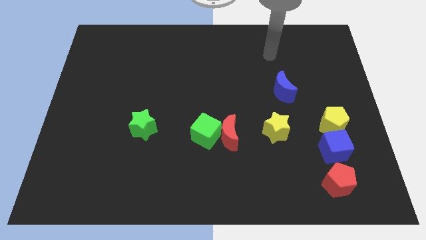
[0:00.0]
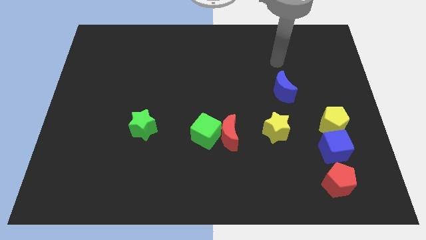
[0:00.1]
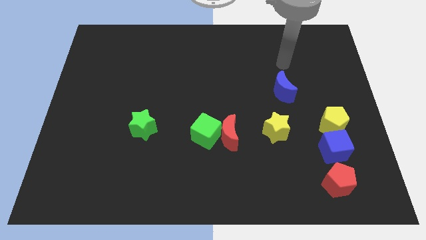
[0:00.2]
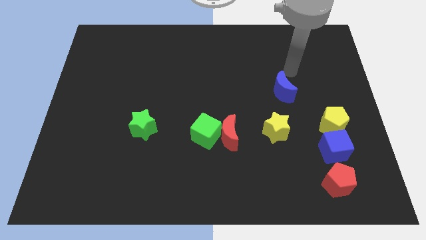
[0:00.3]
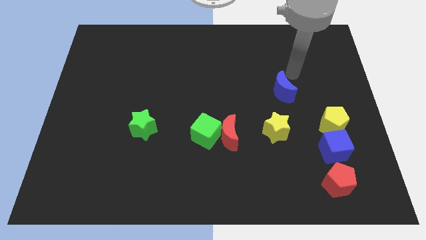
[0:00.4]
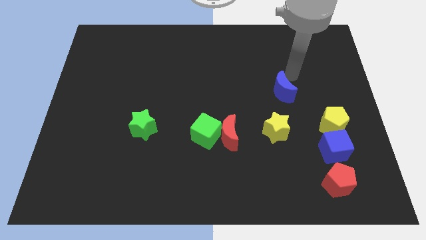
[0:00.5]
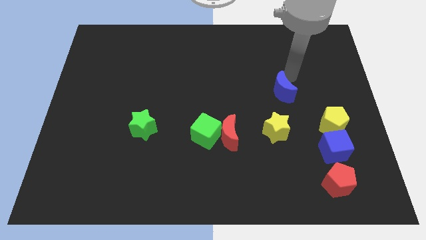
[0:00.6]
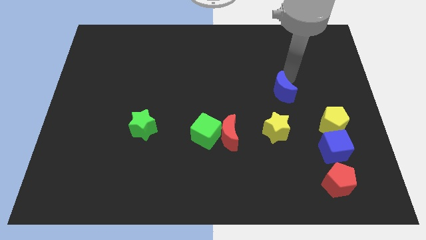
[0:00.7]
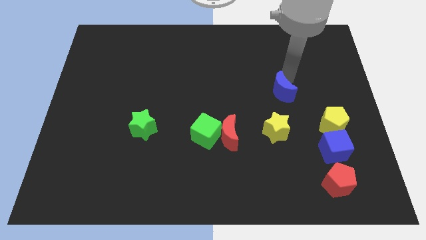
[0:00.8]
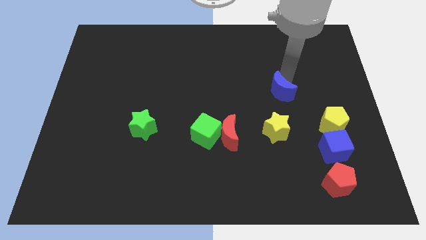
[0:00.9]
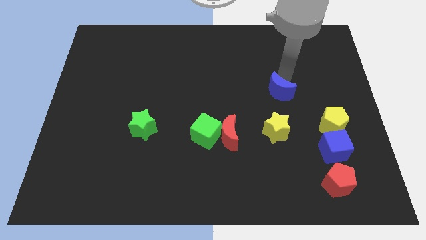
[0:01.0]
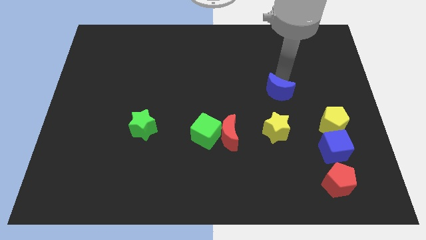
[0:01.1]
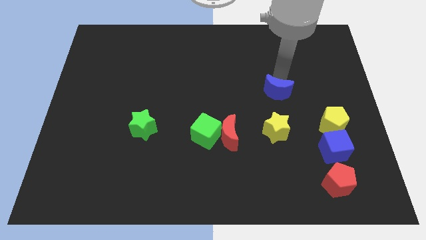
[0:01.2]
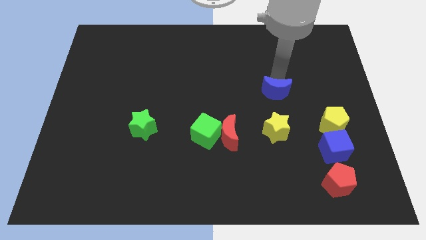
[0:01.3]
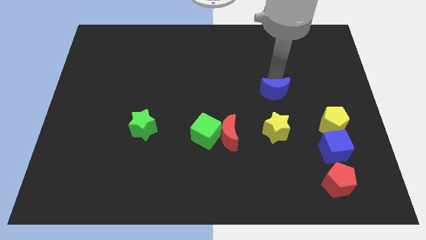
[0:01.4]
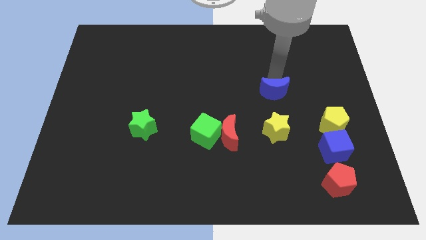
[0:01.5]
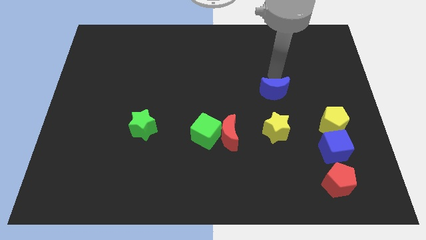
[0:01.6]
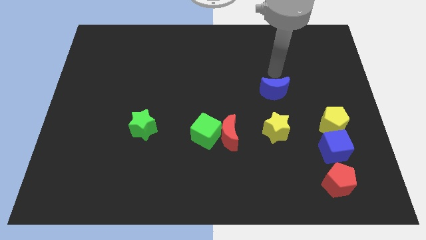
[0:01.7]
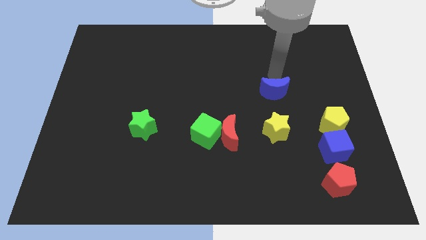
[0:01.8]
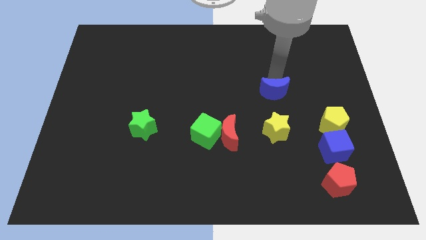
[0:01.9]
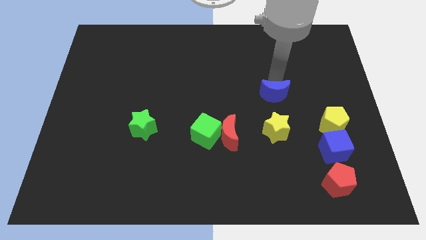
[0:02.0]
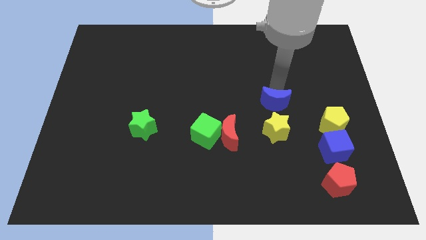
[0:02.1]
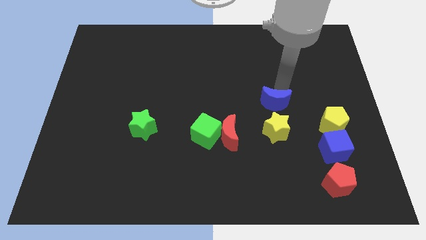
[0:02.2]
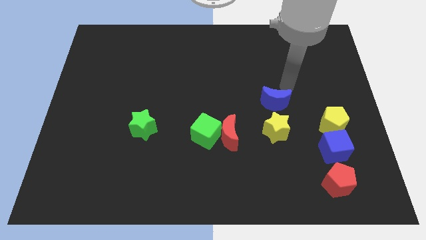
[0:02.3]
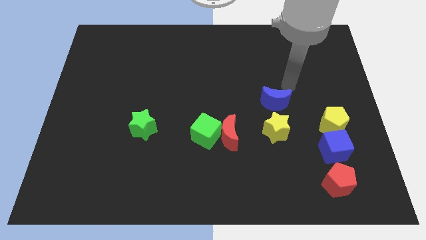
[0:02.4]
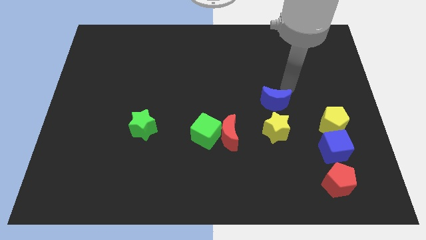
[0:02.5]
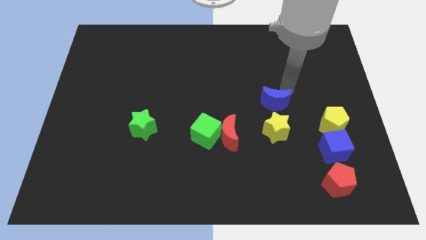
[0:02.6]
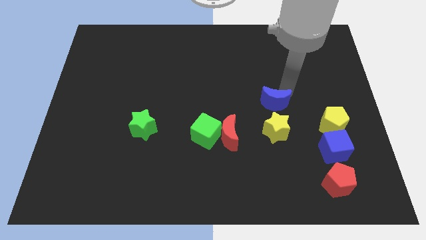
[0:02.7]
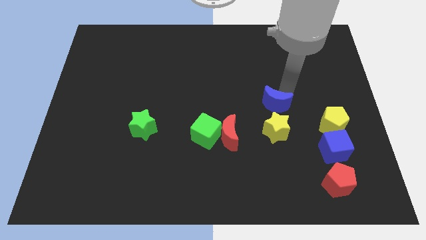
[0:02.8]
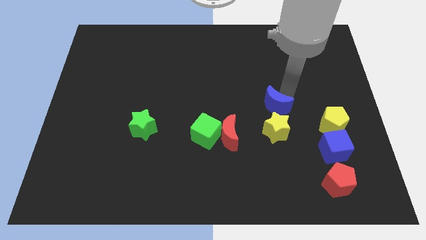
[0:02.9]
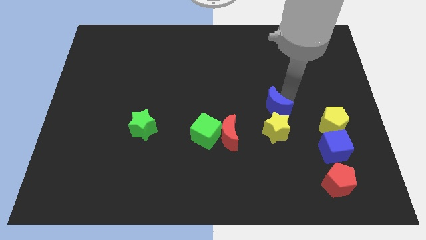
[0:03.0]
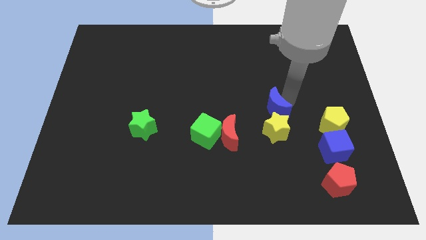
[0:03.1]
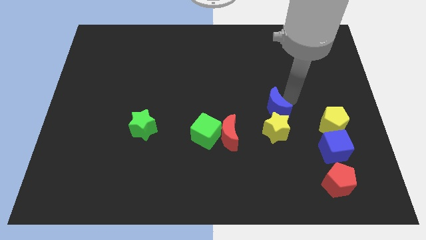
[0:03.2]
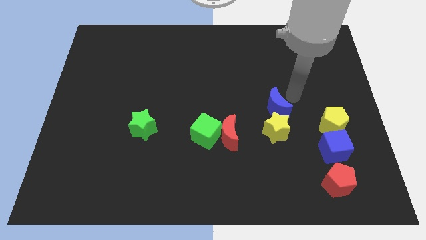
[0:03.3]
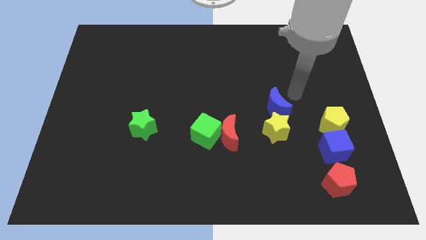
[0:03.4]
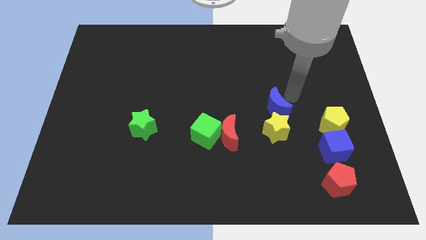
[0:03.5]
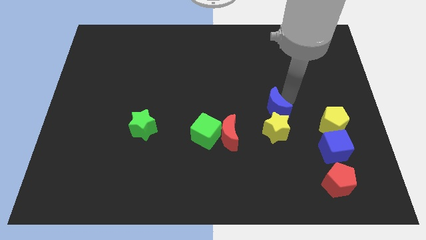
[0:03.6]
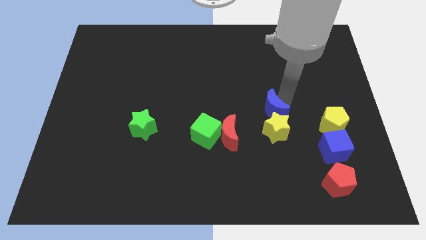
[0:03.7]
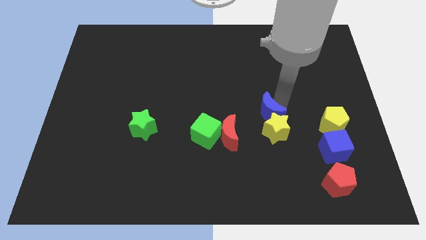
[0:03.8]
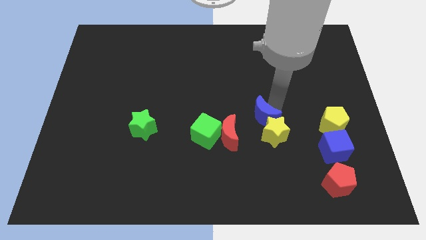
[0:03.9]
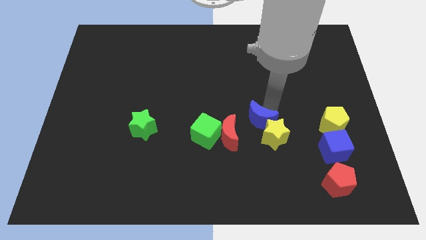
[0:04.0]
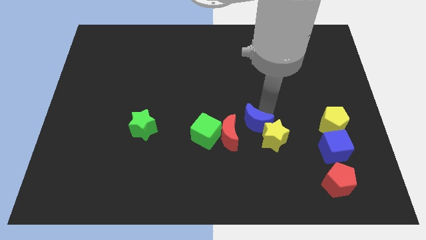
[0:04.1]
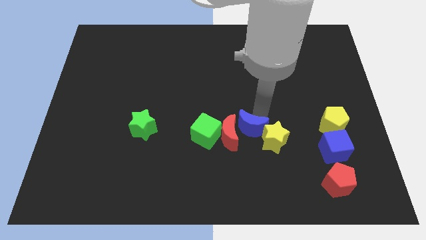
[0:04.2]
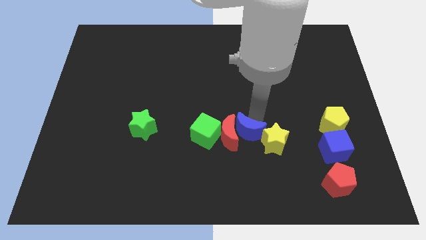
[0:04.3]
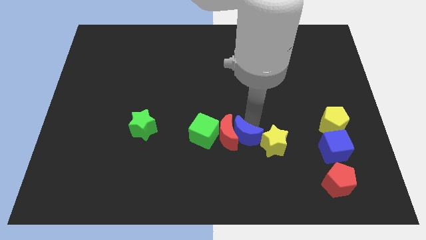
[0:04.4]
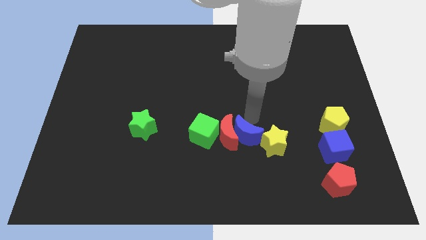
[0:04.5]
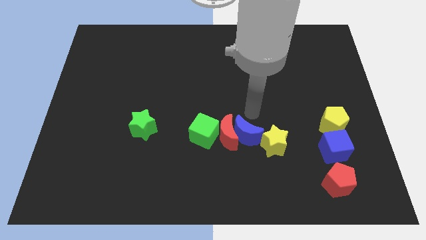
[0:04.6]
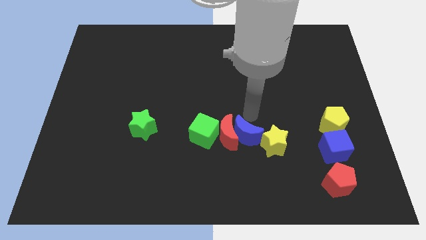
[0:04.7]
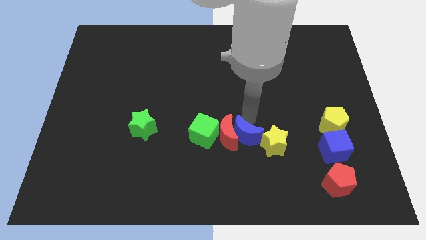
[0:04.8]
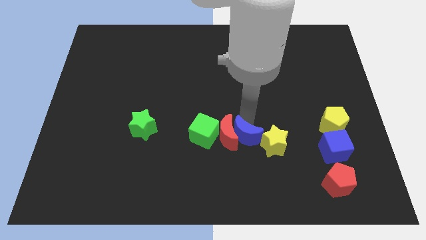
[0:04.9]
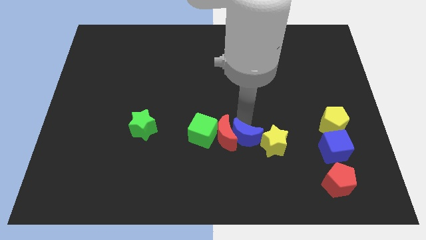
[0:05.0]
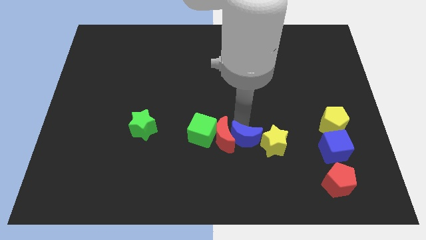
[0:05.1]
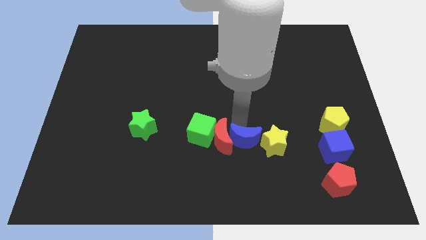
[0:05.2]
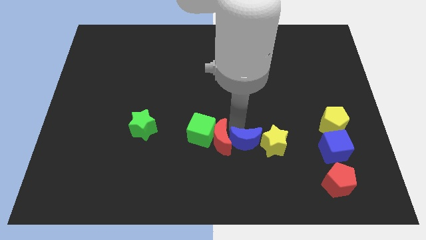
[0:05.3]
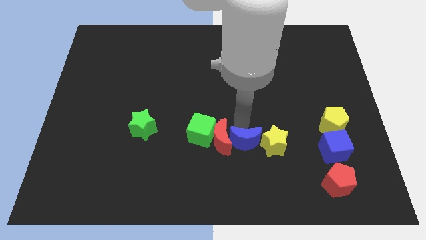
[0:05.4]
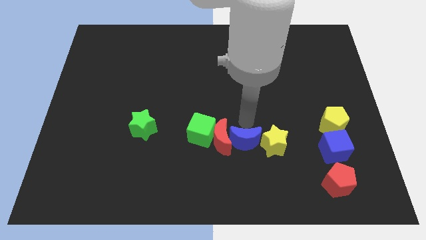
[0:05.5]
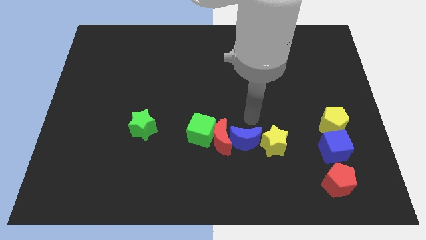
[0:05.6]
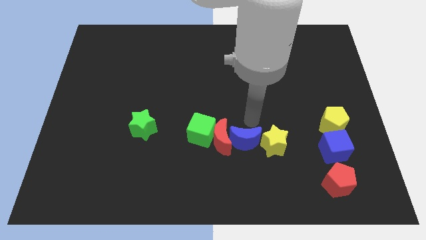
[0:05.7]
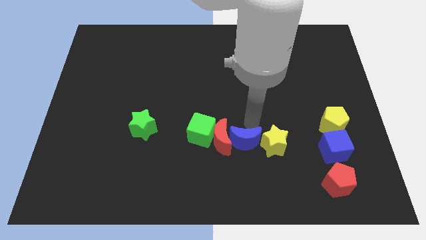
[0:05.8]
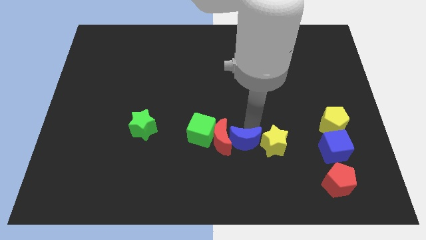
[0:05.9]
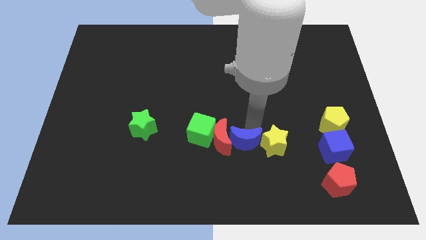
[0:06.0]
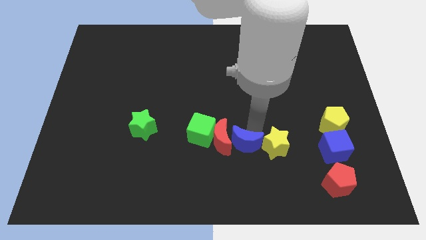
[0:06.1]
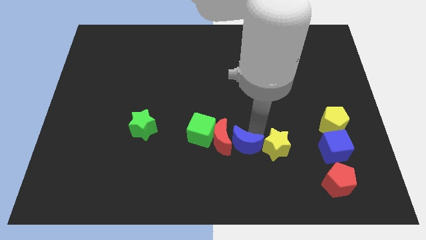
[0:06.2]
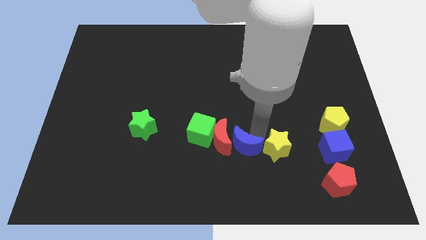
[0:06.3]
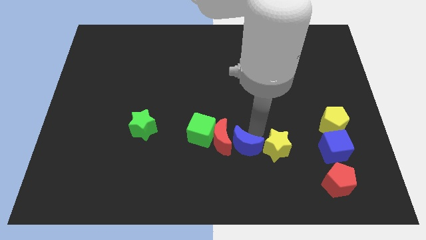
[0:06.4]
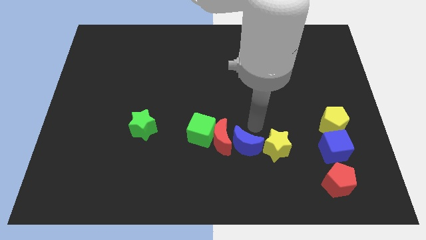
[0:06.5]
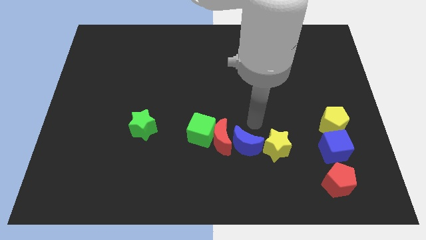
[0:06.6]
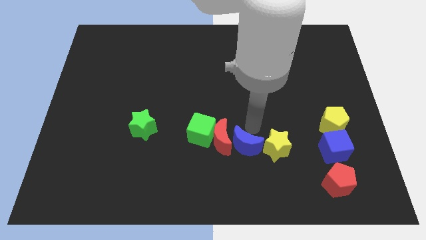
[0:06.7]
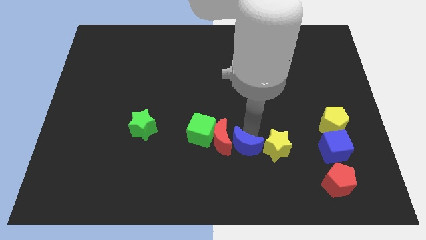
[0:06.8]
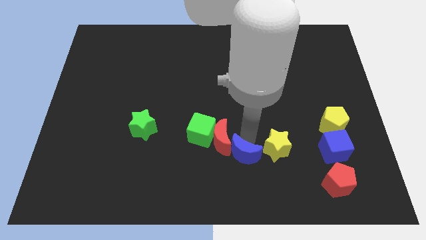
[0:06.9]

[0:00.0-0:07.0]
put the blue moon to the bottom of the red moon
